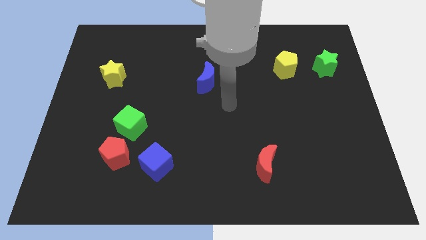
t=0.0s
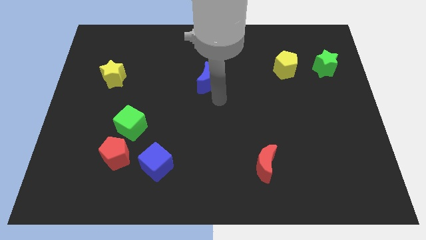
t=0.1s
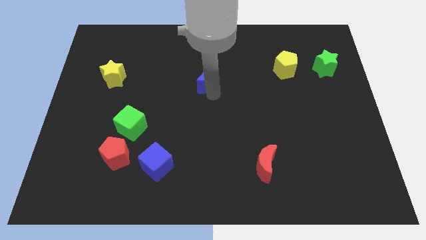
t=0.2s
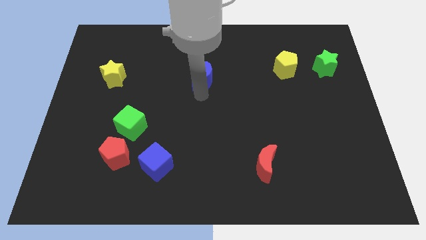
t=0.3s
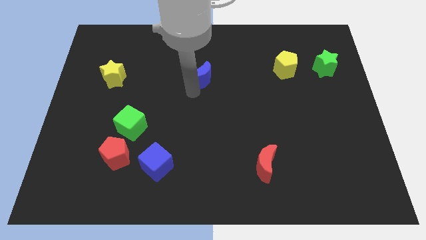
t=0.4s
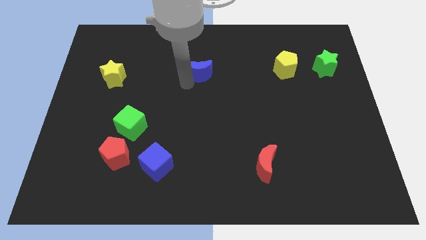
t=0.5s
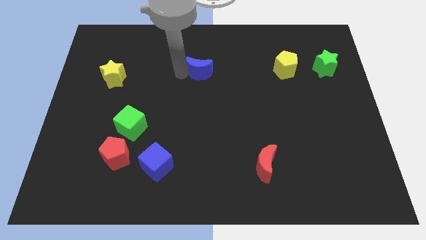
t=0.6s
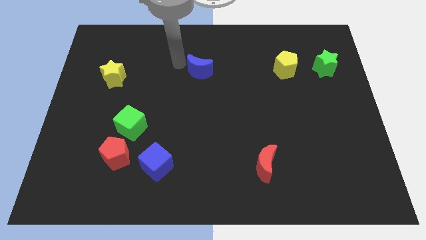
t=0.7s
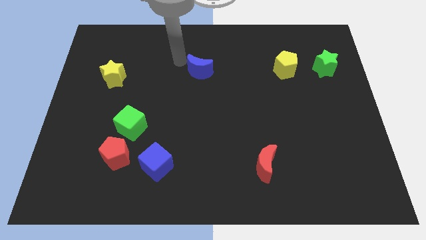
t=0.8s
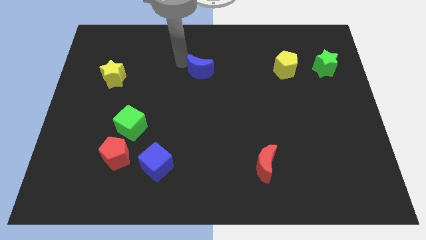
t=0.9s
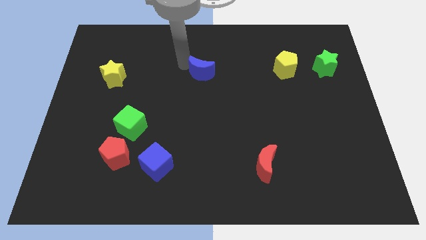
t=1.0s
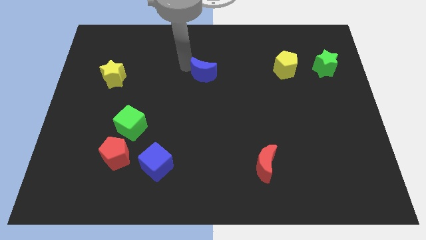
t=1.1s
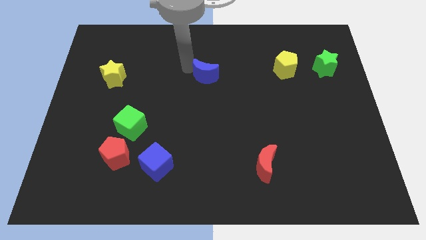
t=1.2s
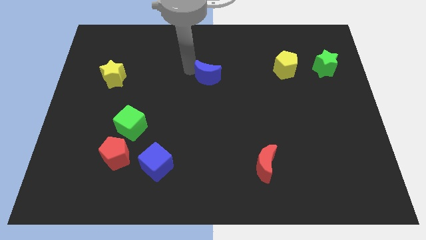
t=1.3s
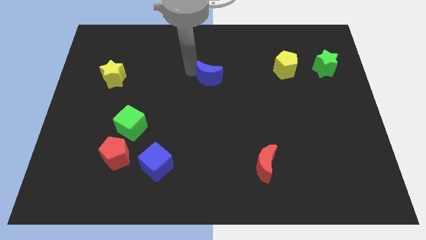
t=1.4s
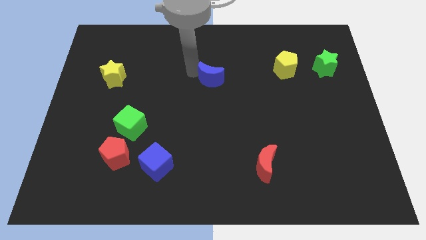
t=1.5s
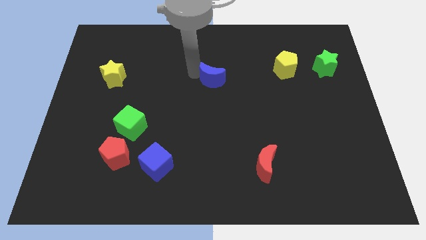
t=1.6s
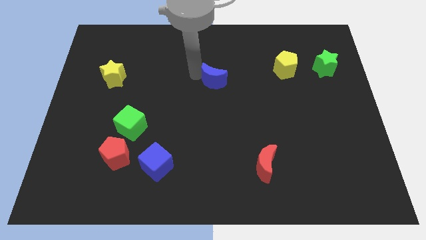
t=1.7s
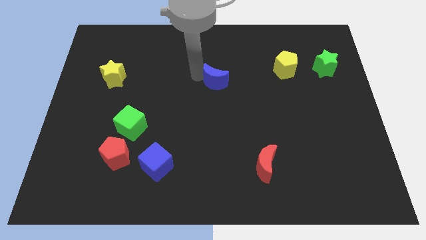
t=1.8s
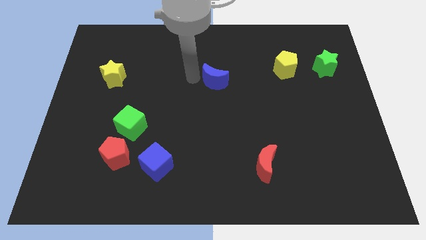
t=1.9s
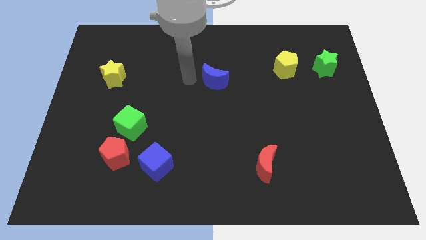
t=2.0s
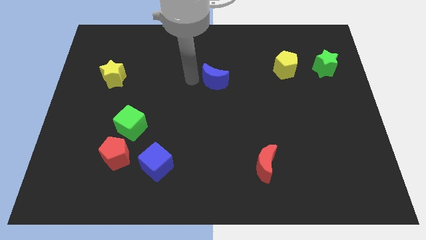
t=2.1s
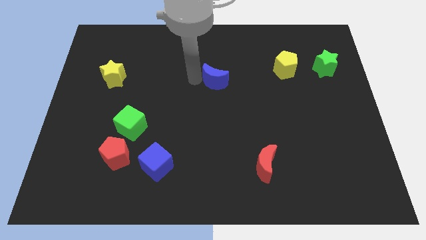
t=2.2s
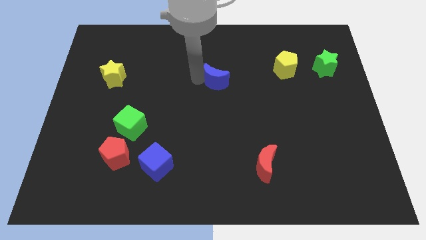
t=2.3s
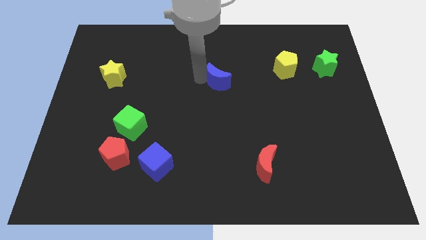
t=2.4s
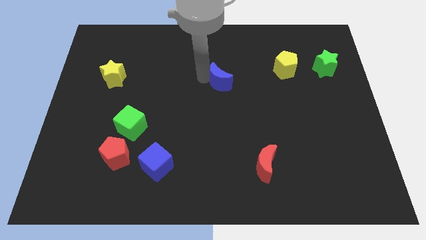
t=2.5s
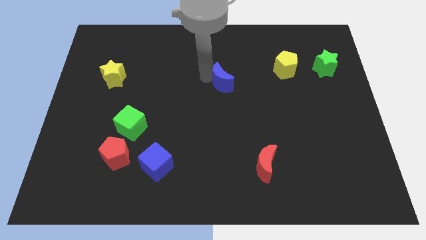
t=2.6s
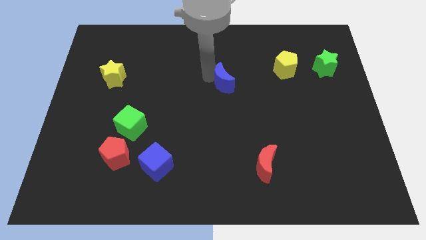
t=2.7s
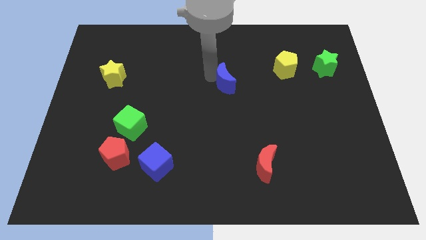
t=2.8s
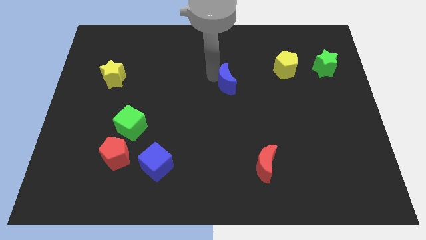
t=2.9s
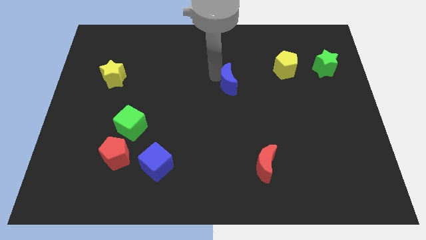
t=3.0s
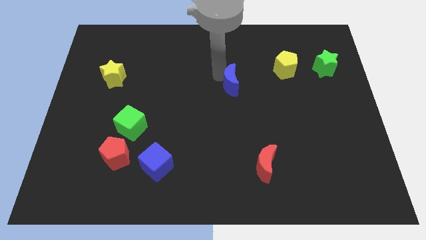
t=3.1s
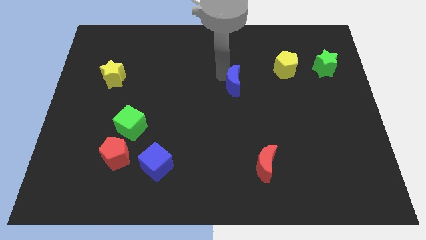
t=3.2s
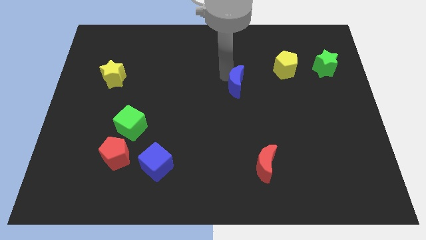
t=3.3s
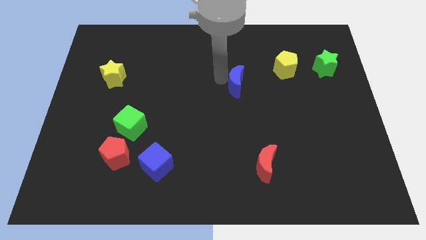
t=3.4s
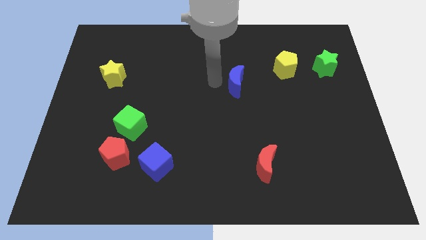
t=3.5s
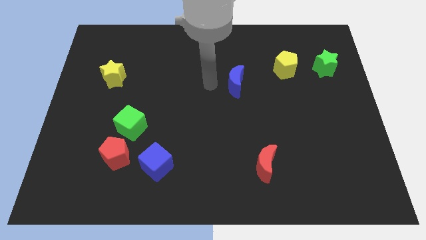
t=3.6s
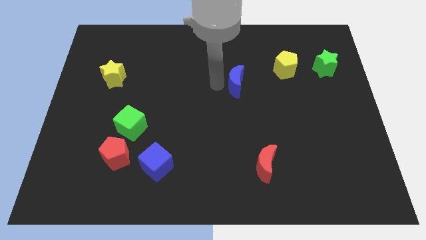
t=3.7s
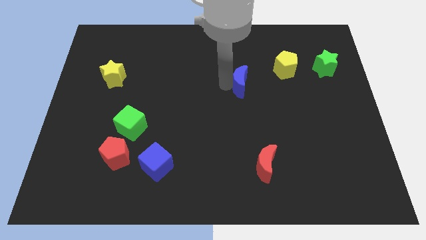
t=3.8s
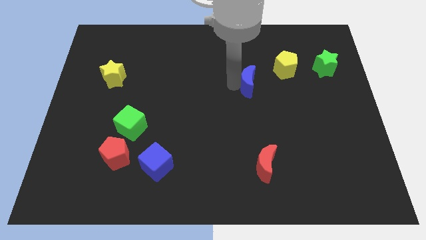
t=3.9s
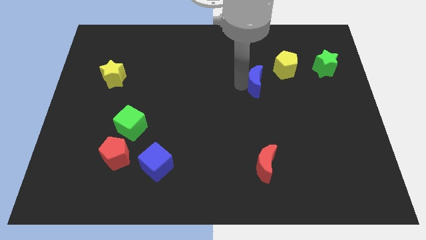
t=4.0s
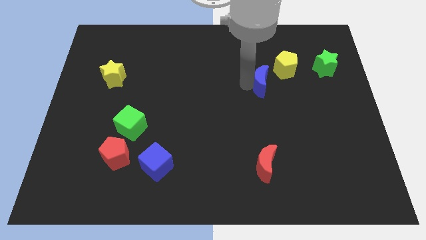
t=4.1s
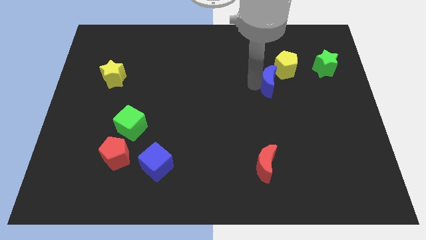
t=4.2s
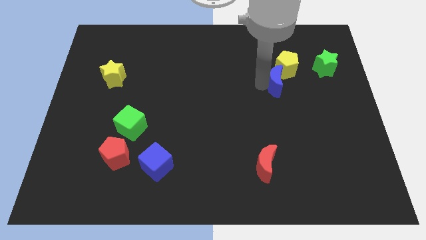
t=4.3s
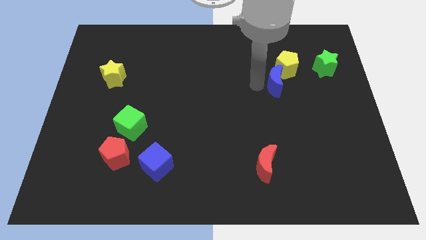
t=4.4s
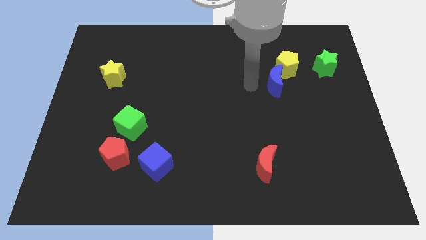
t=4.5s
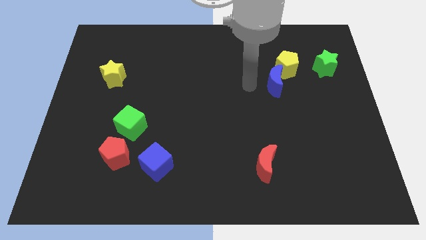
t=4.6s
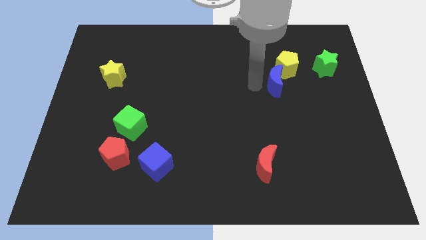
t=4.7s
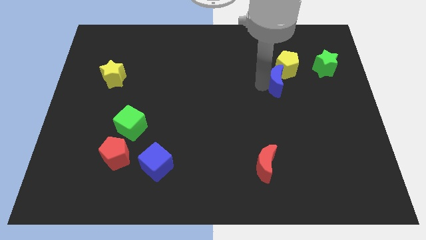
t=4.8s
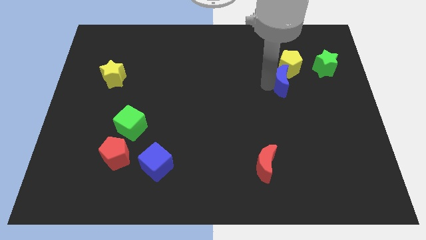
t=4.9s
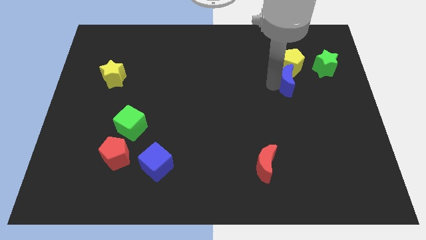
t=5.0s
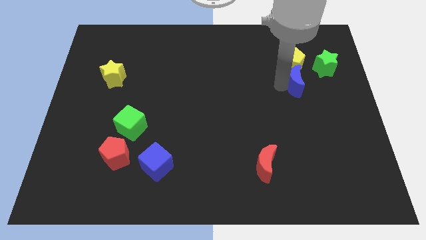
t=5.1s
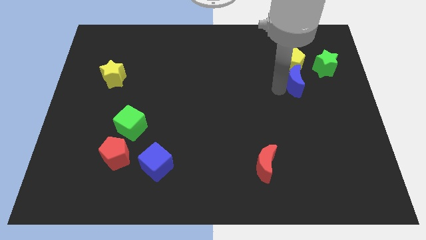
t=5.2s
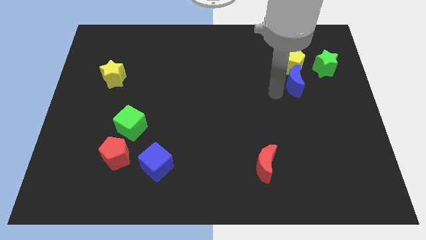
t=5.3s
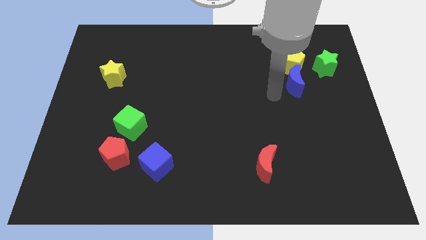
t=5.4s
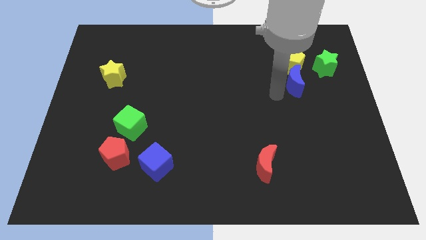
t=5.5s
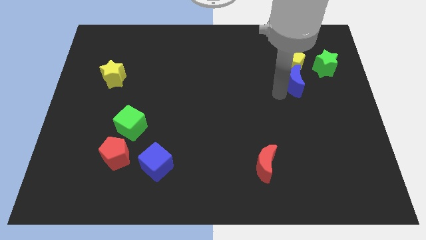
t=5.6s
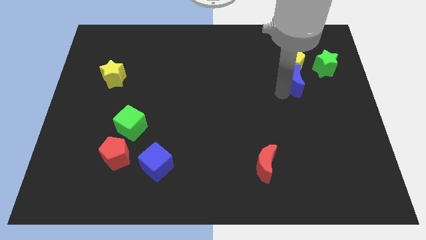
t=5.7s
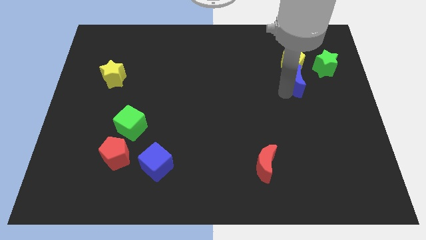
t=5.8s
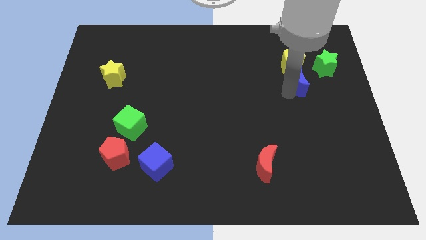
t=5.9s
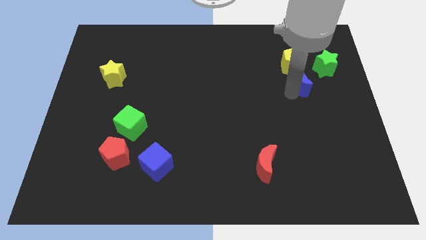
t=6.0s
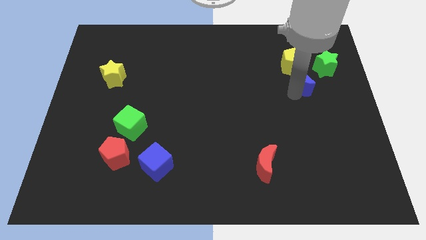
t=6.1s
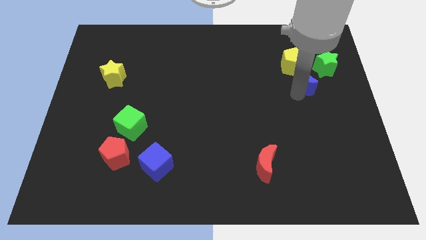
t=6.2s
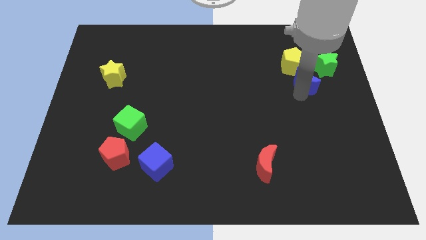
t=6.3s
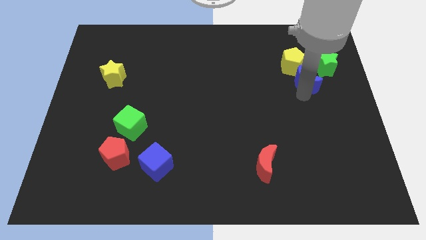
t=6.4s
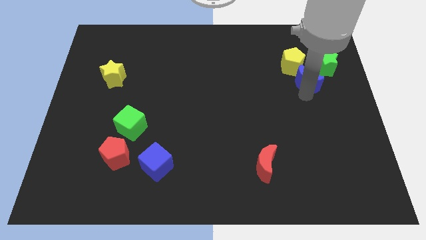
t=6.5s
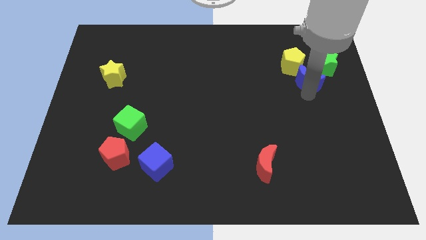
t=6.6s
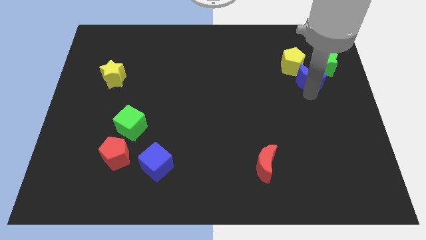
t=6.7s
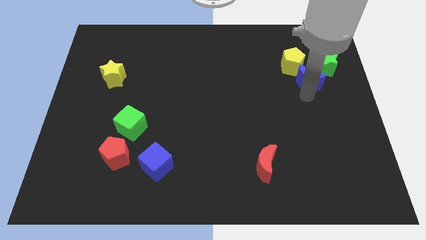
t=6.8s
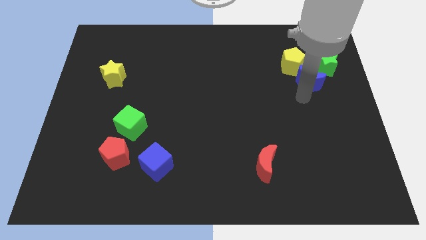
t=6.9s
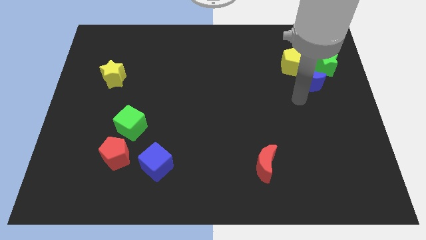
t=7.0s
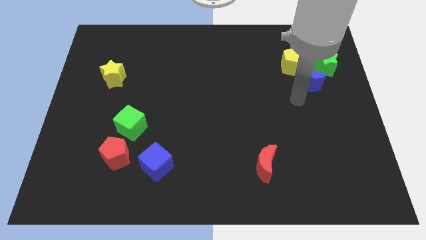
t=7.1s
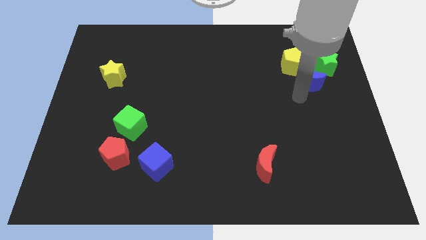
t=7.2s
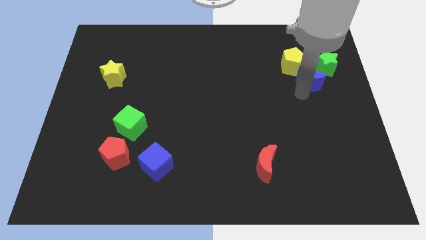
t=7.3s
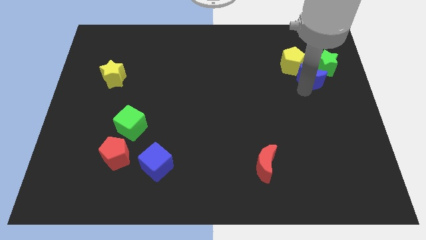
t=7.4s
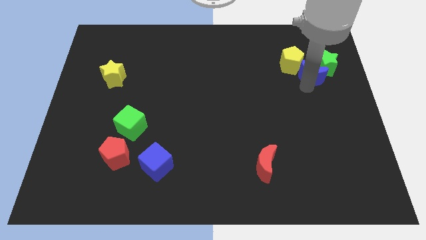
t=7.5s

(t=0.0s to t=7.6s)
put the blue moon next to the green star
